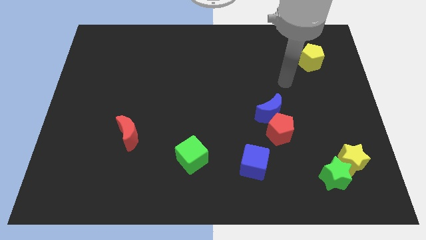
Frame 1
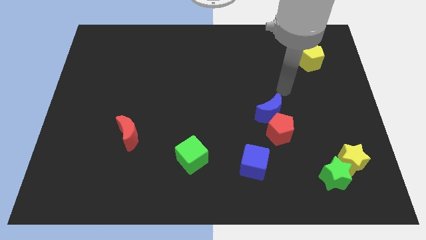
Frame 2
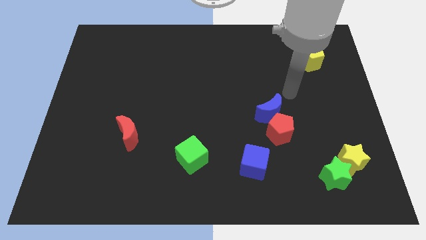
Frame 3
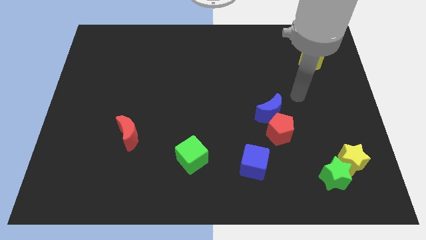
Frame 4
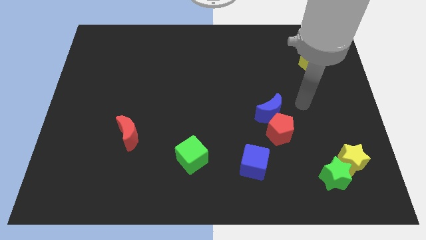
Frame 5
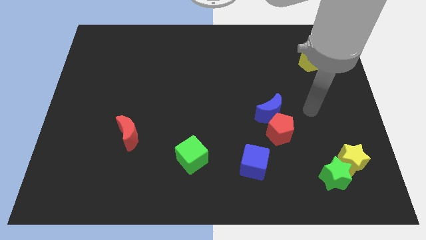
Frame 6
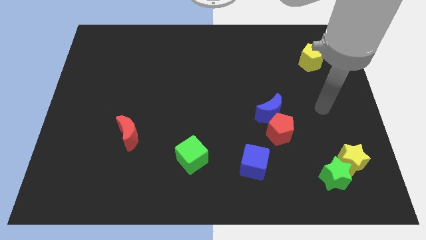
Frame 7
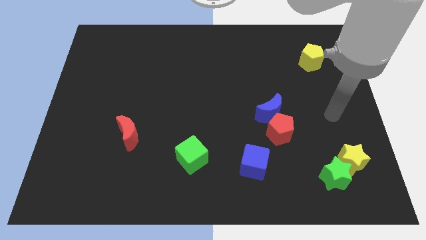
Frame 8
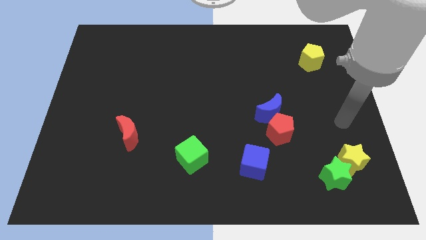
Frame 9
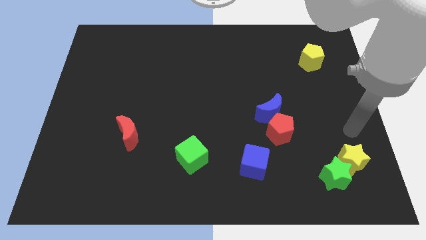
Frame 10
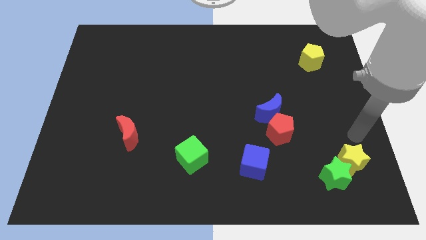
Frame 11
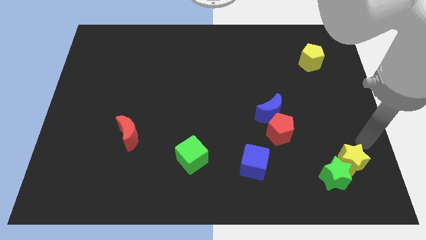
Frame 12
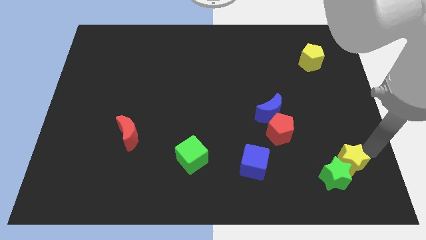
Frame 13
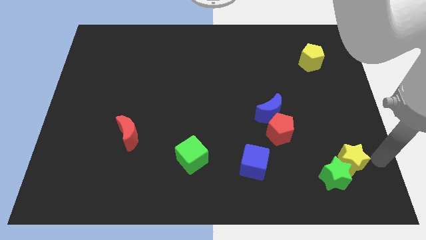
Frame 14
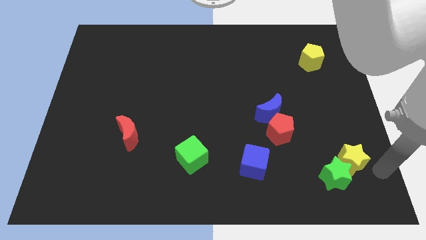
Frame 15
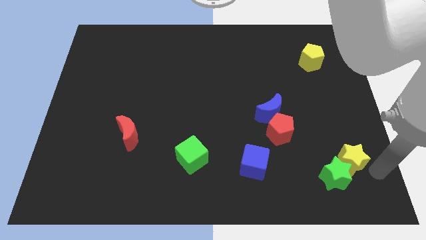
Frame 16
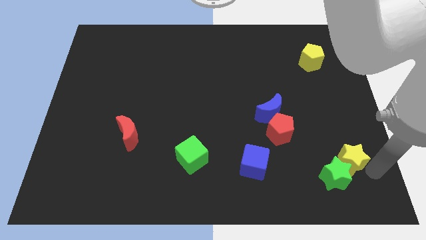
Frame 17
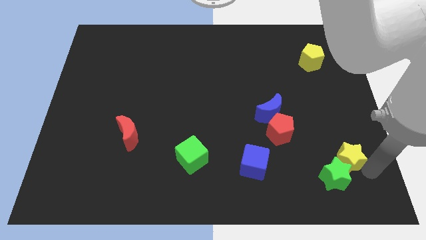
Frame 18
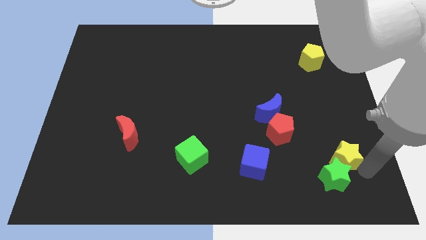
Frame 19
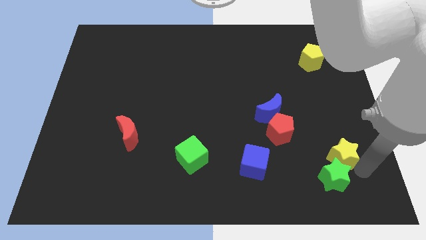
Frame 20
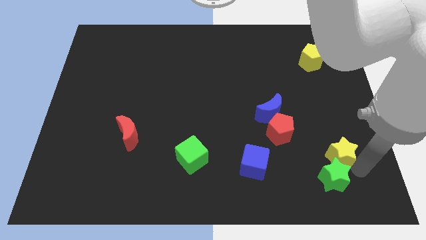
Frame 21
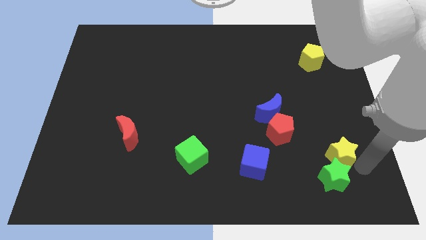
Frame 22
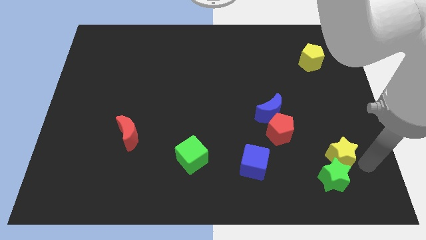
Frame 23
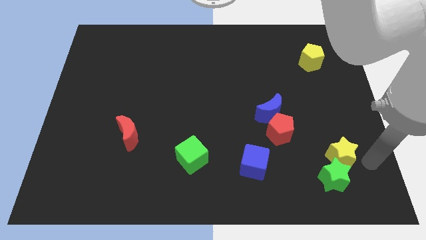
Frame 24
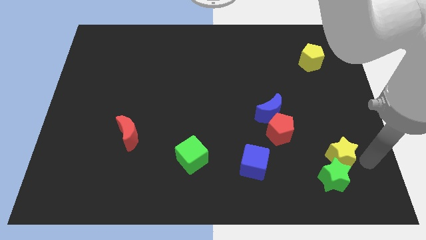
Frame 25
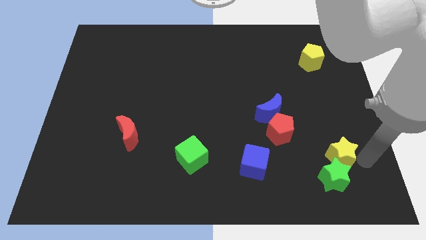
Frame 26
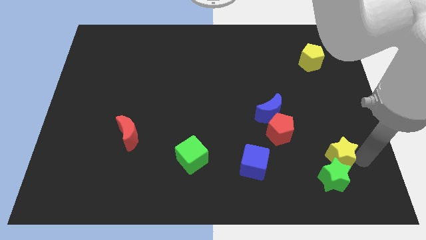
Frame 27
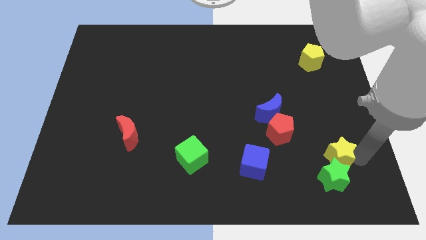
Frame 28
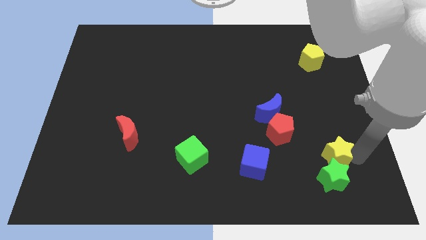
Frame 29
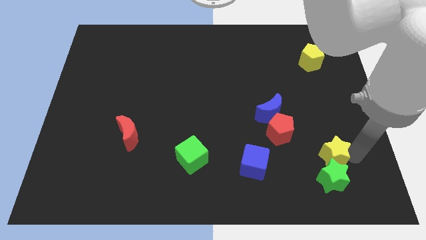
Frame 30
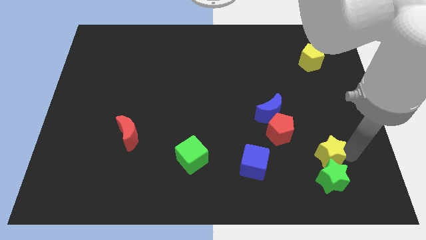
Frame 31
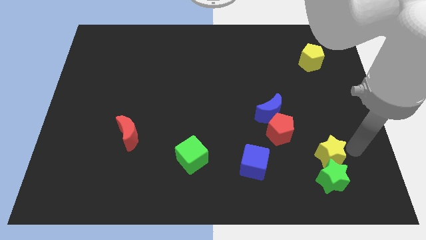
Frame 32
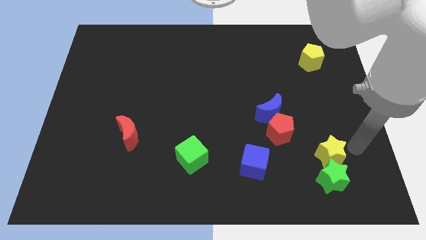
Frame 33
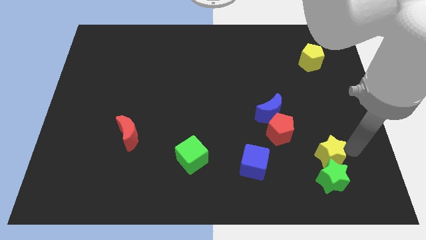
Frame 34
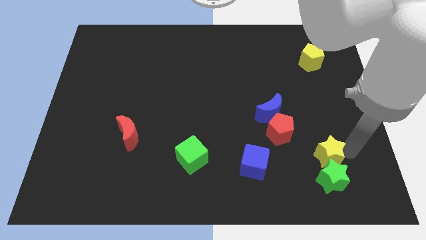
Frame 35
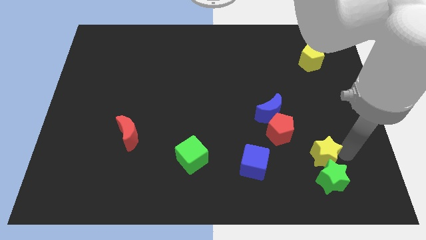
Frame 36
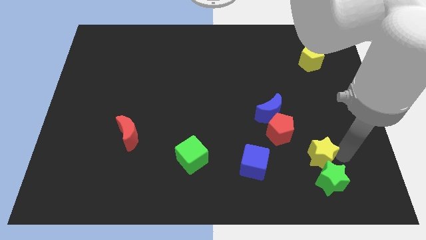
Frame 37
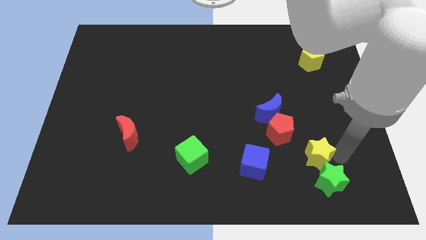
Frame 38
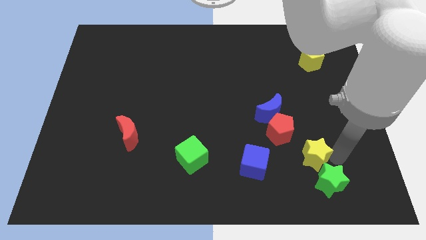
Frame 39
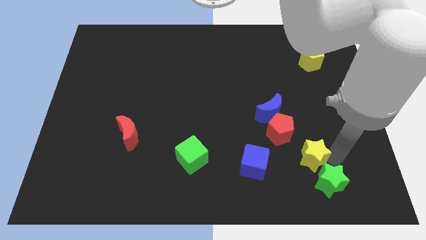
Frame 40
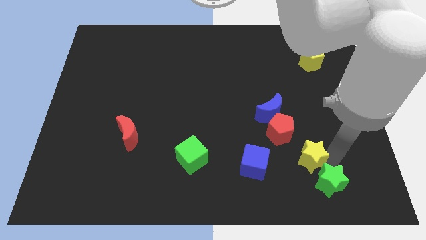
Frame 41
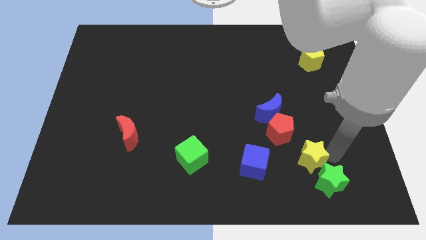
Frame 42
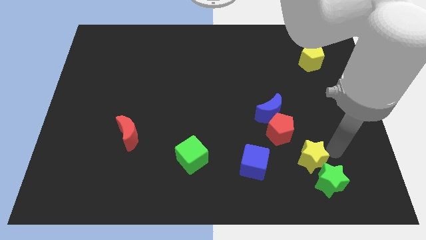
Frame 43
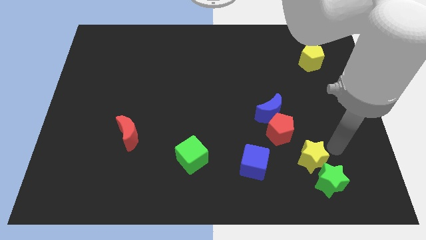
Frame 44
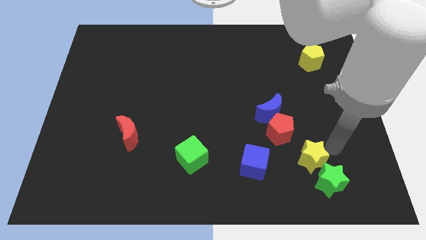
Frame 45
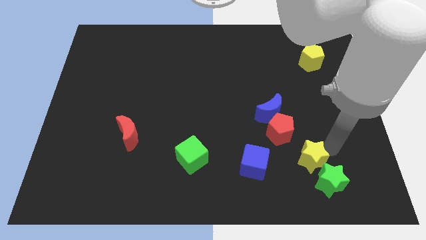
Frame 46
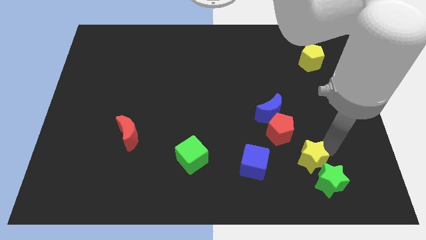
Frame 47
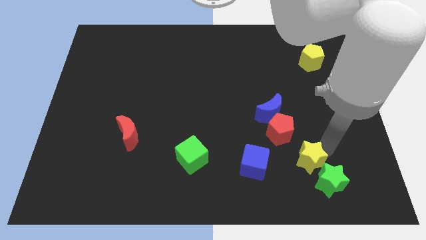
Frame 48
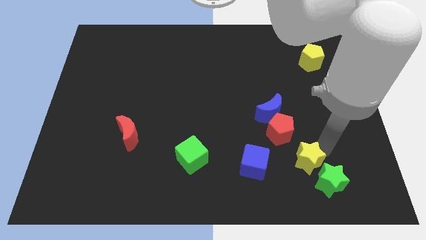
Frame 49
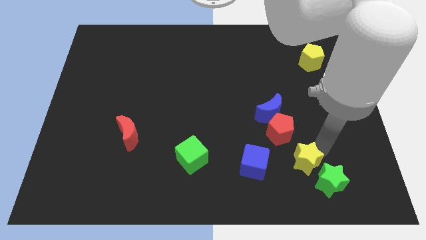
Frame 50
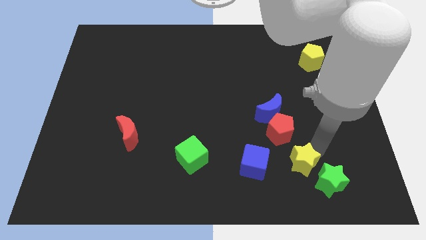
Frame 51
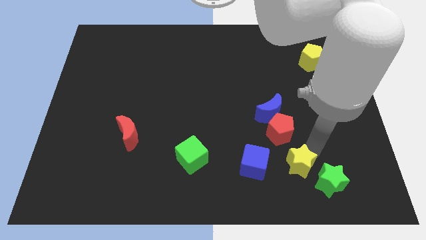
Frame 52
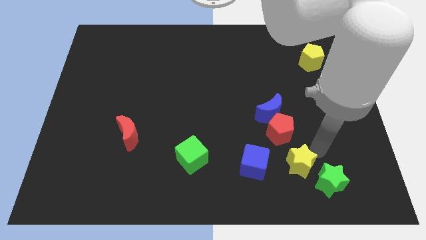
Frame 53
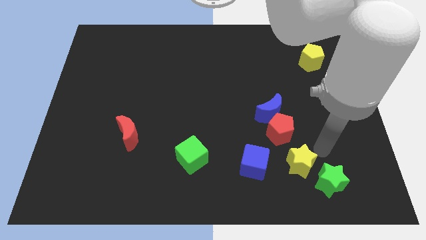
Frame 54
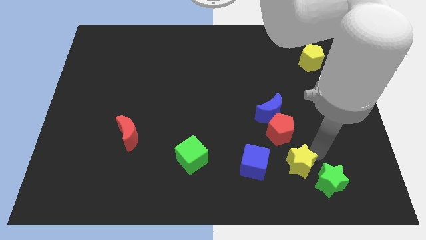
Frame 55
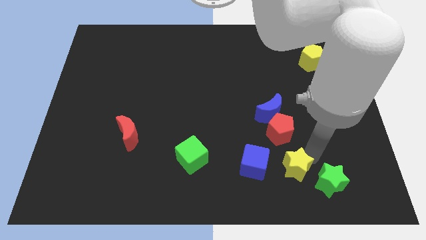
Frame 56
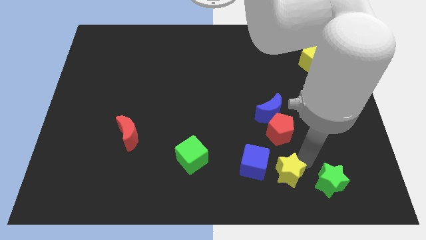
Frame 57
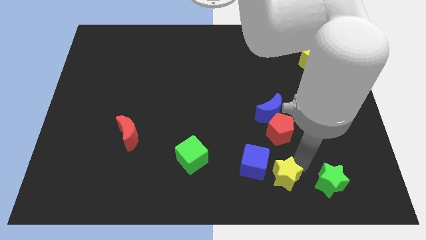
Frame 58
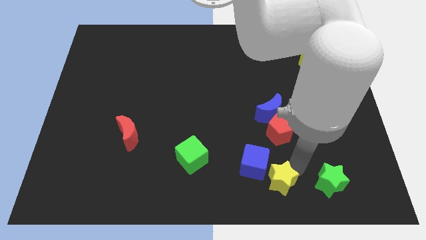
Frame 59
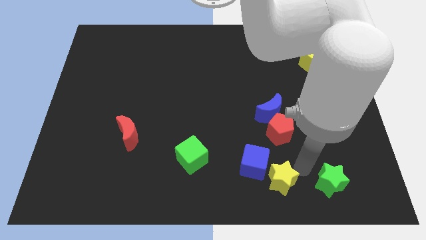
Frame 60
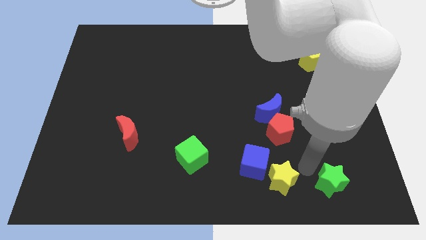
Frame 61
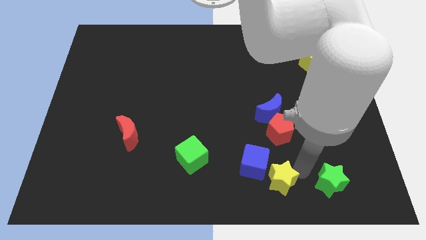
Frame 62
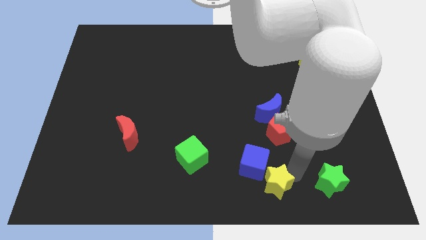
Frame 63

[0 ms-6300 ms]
move the yellow star to the bottom side
